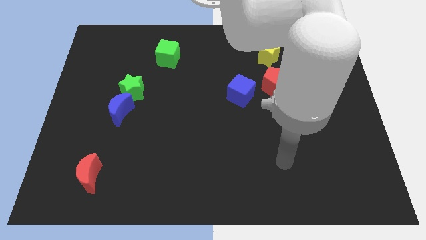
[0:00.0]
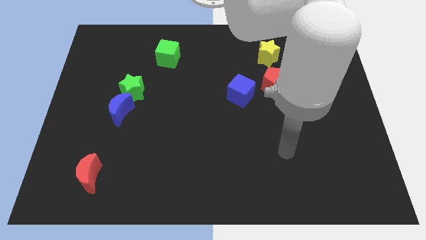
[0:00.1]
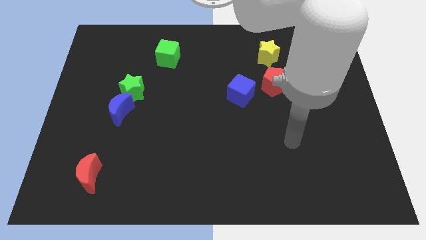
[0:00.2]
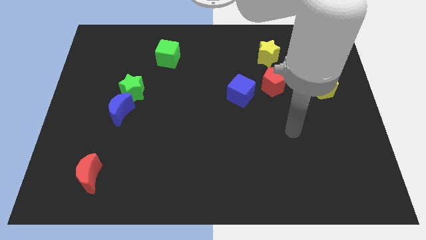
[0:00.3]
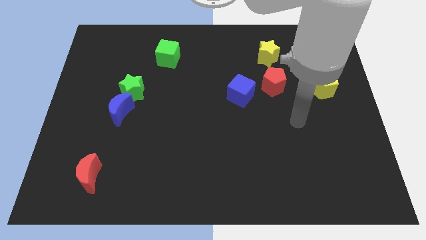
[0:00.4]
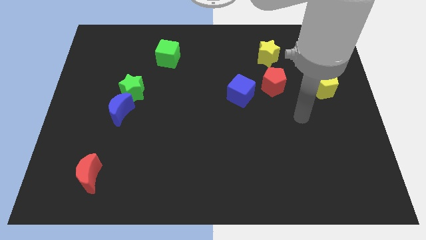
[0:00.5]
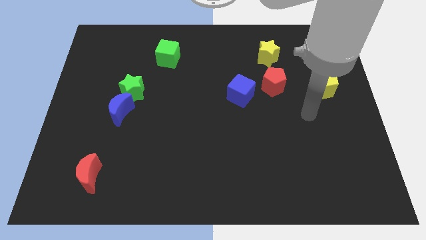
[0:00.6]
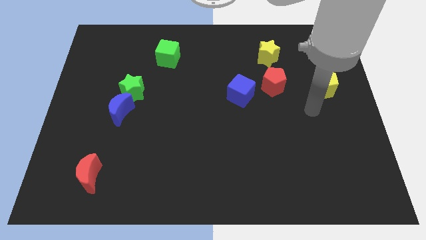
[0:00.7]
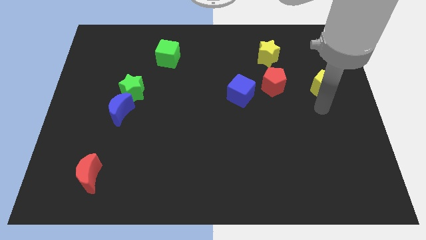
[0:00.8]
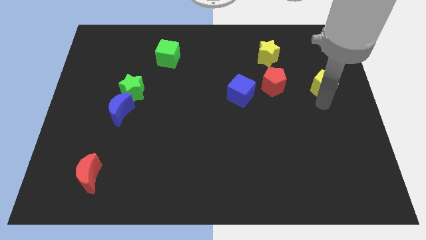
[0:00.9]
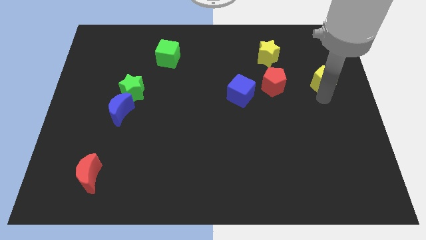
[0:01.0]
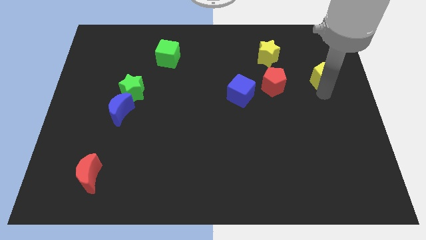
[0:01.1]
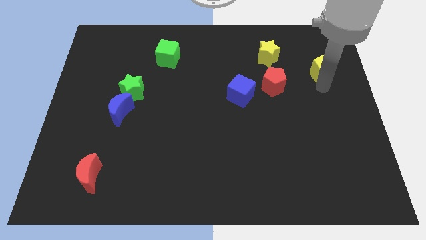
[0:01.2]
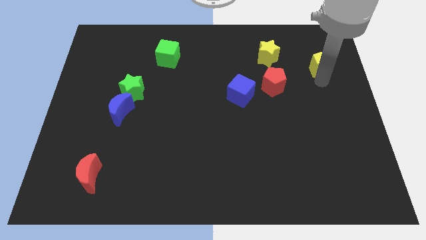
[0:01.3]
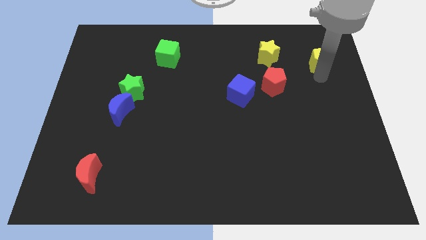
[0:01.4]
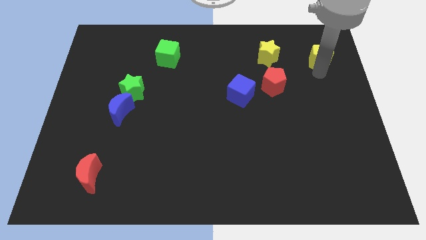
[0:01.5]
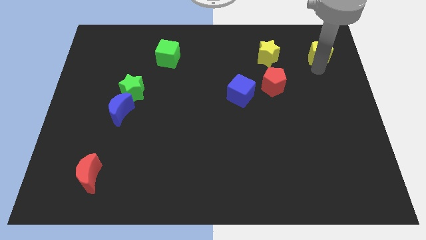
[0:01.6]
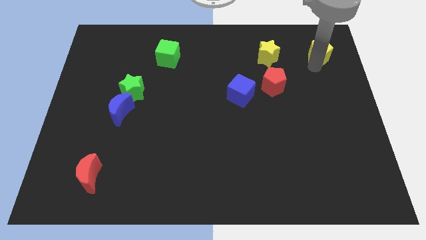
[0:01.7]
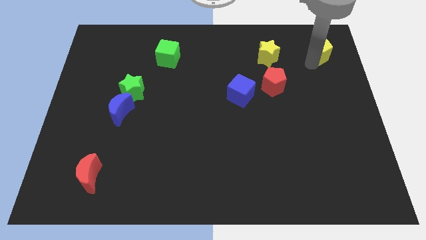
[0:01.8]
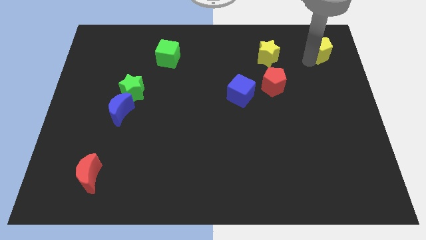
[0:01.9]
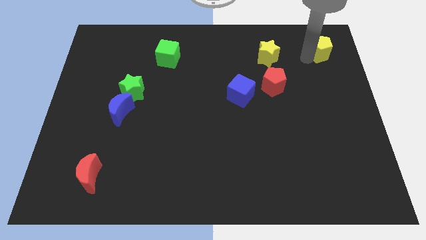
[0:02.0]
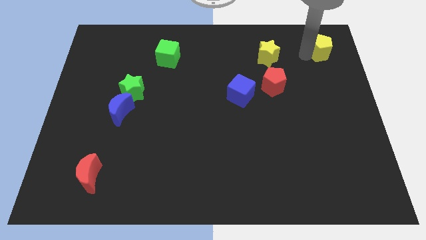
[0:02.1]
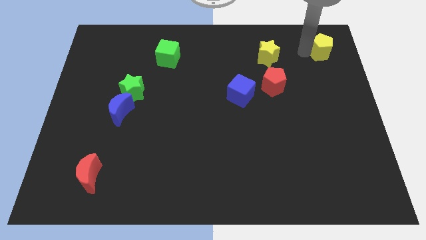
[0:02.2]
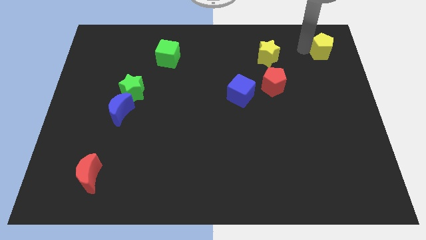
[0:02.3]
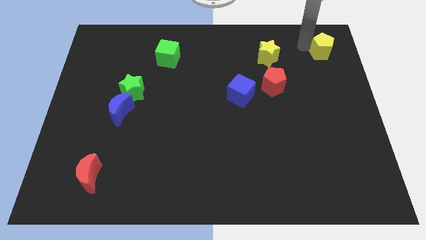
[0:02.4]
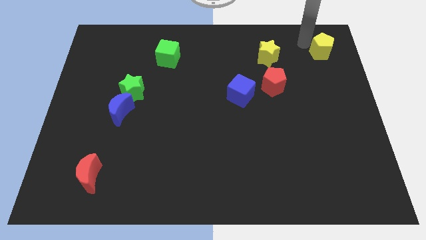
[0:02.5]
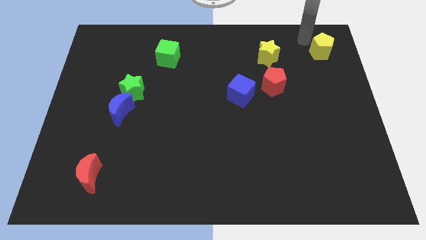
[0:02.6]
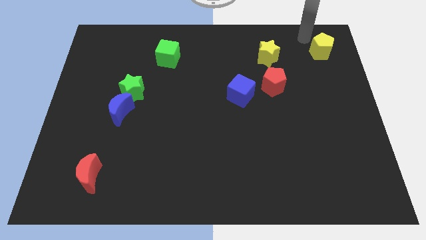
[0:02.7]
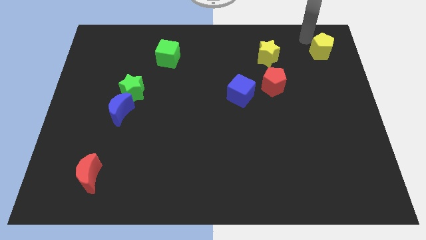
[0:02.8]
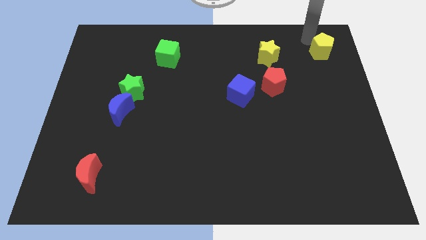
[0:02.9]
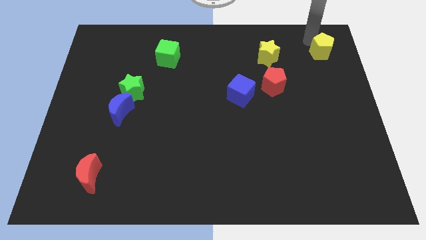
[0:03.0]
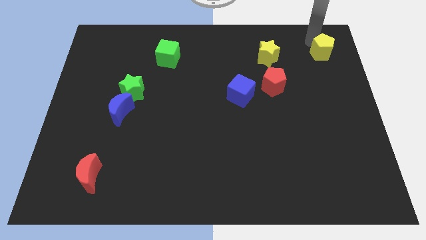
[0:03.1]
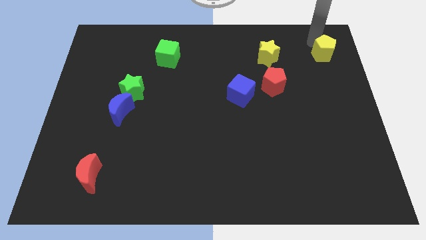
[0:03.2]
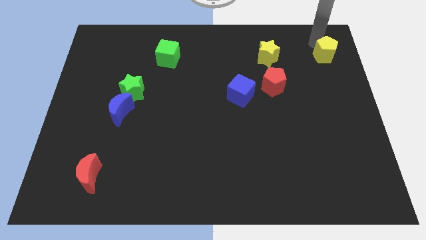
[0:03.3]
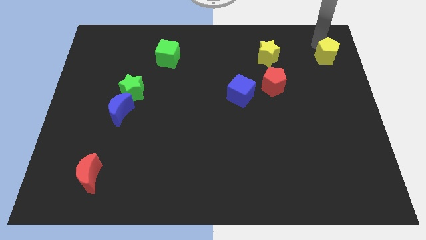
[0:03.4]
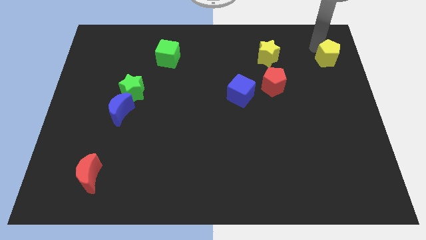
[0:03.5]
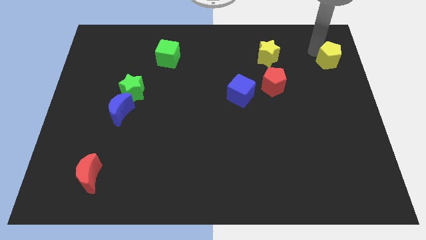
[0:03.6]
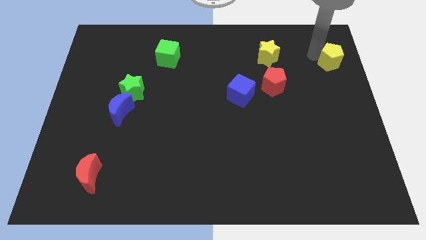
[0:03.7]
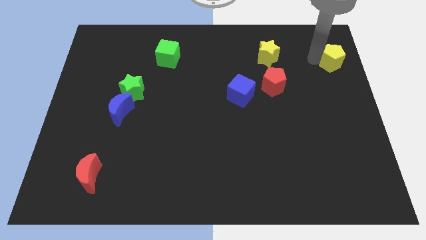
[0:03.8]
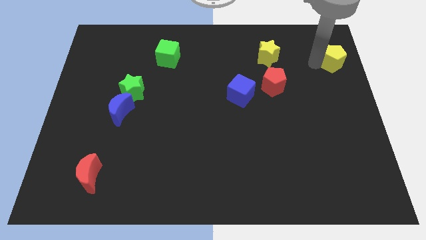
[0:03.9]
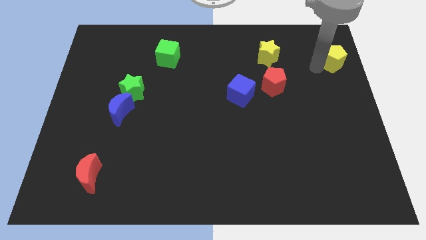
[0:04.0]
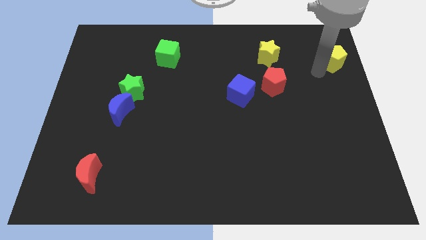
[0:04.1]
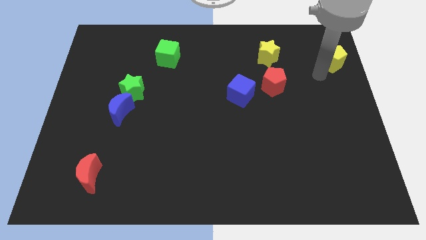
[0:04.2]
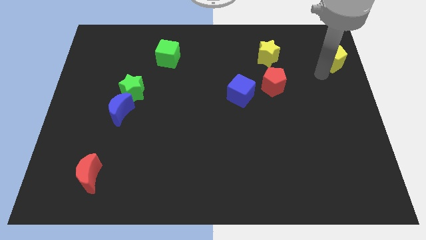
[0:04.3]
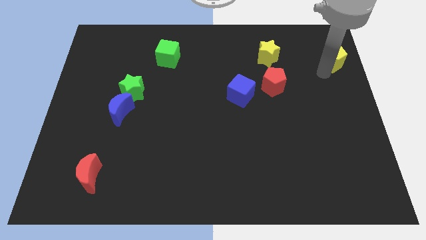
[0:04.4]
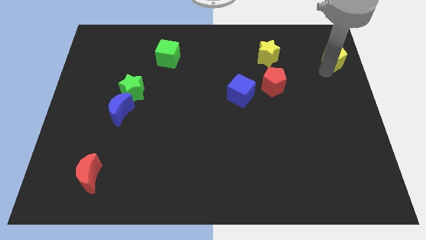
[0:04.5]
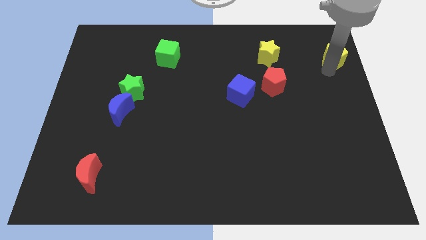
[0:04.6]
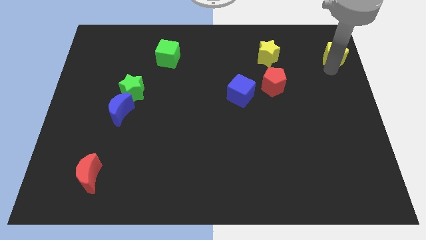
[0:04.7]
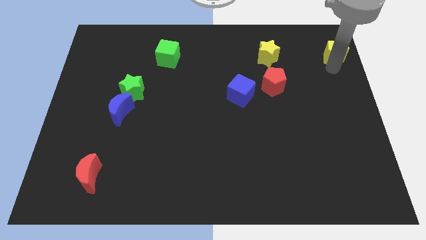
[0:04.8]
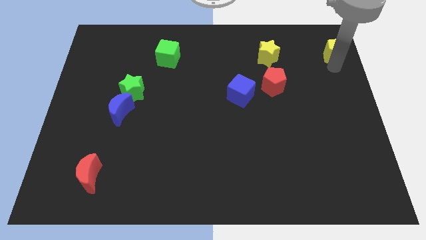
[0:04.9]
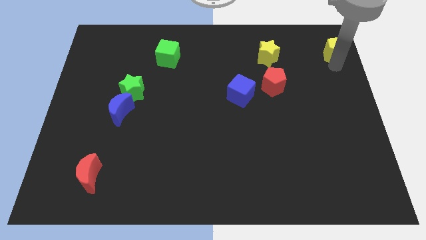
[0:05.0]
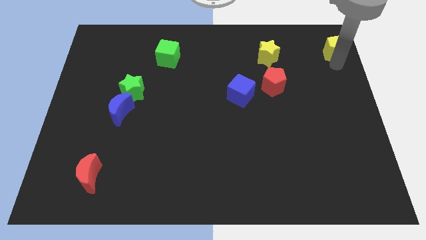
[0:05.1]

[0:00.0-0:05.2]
move the yellow pentagon to the top right
